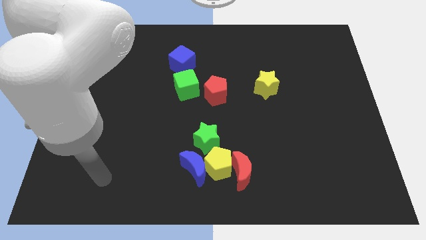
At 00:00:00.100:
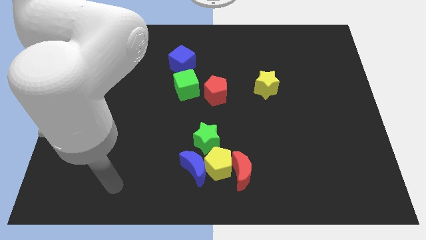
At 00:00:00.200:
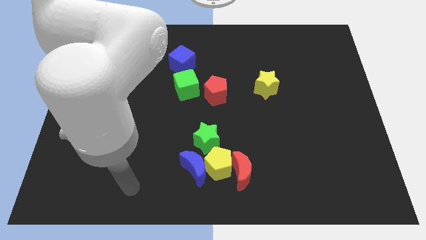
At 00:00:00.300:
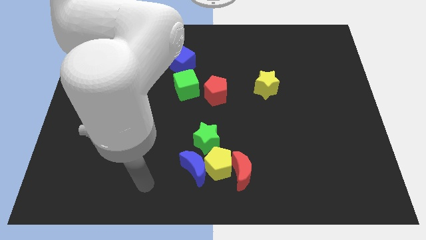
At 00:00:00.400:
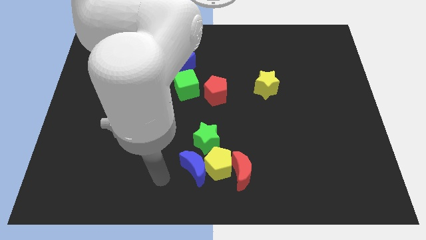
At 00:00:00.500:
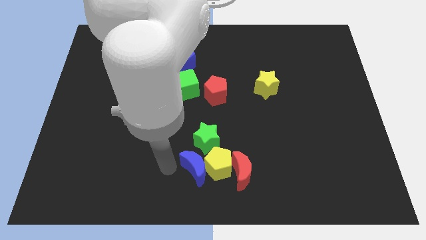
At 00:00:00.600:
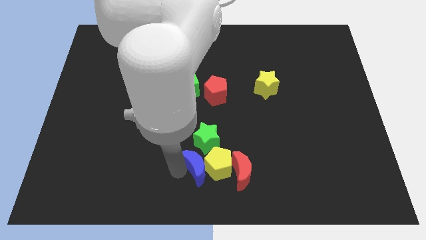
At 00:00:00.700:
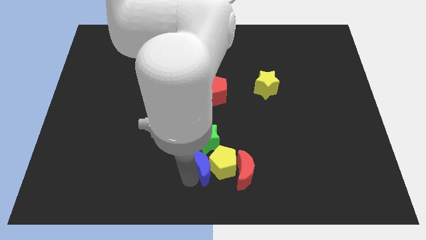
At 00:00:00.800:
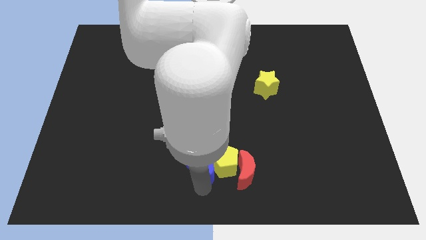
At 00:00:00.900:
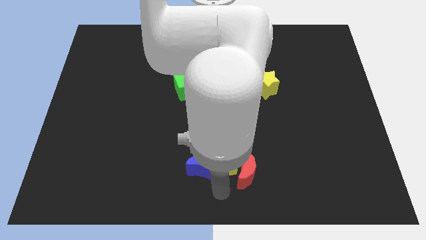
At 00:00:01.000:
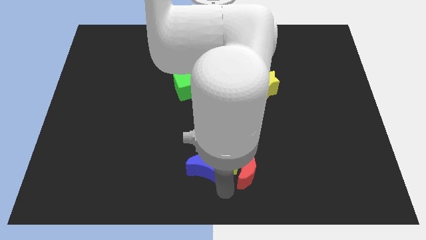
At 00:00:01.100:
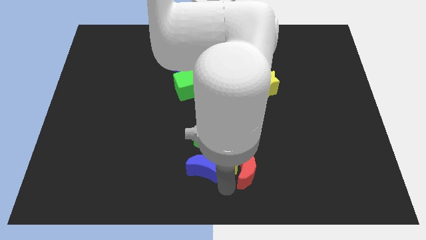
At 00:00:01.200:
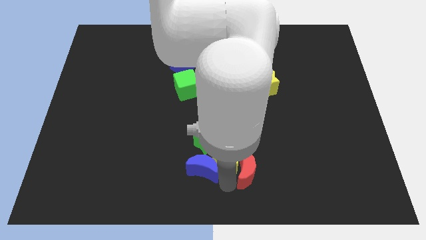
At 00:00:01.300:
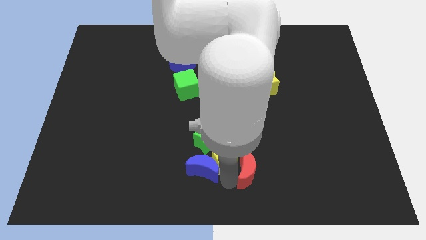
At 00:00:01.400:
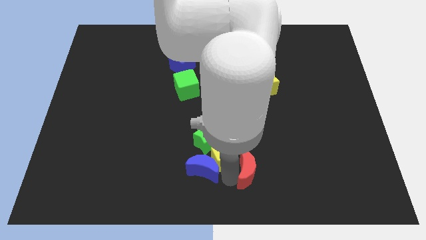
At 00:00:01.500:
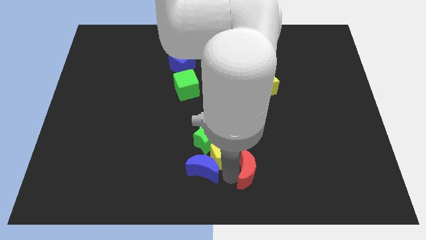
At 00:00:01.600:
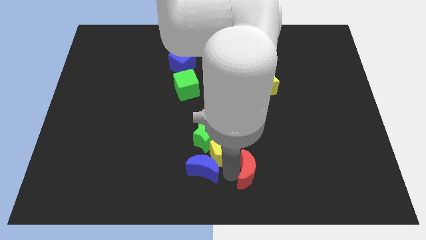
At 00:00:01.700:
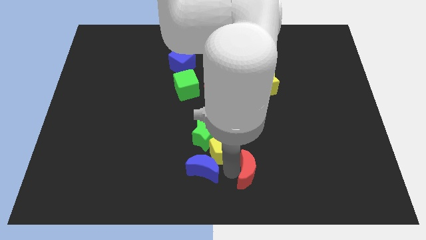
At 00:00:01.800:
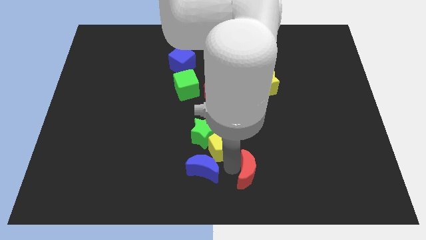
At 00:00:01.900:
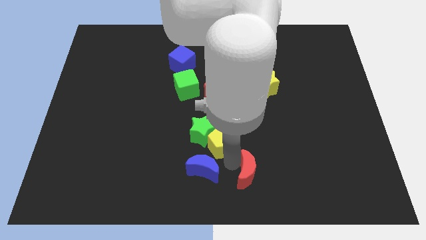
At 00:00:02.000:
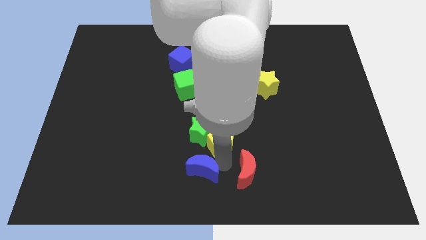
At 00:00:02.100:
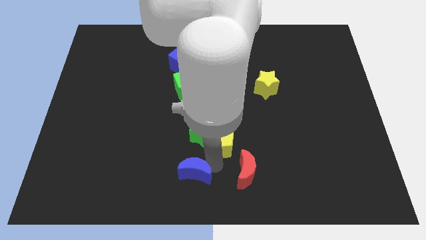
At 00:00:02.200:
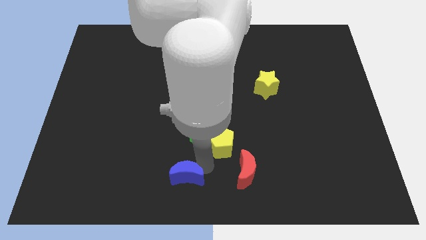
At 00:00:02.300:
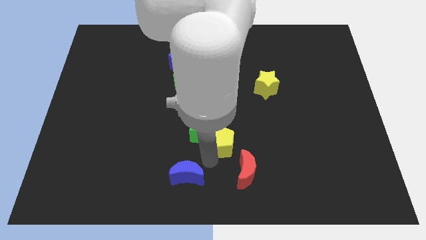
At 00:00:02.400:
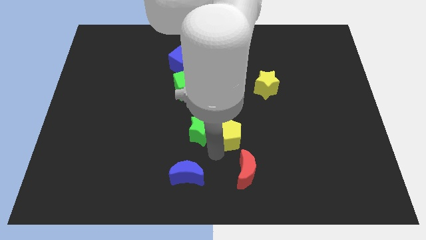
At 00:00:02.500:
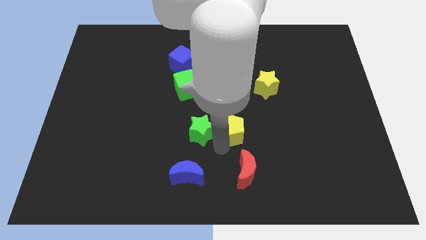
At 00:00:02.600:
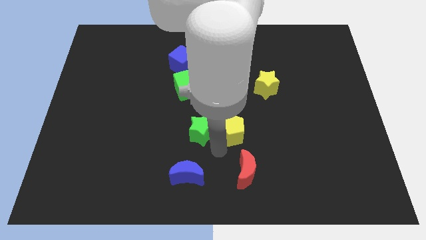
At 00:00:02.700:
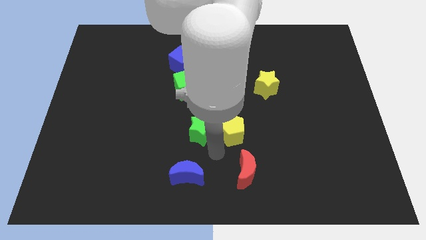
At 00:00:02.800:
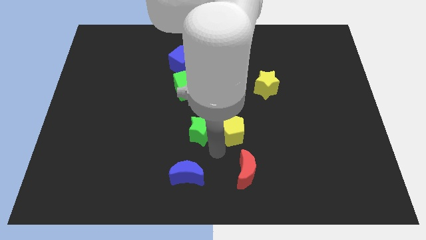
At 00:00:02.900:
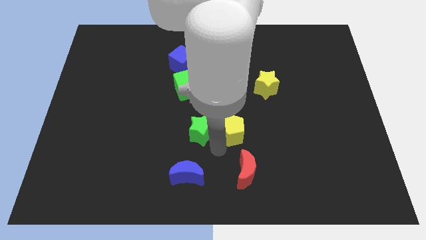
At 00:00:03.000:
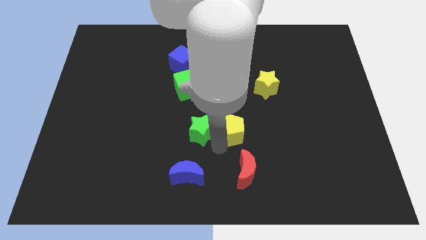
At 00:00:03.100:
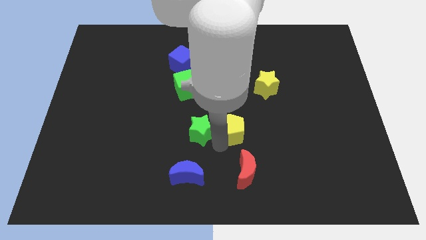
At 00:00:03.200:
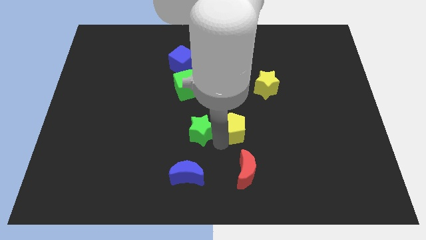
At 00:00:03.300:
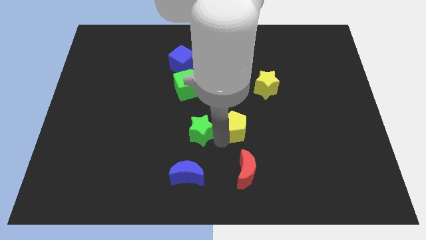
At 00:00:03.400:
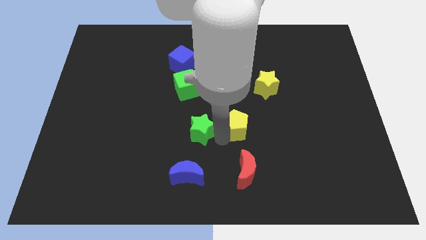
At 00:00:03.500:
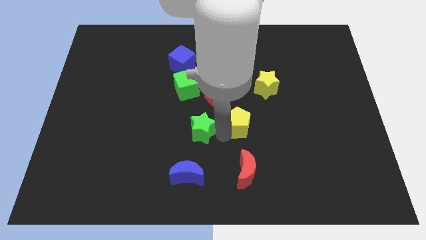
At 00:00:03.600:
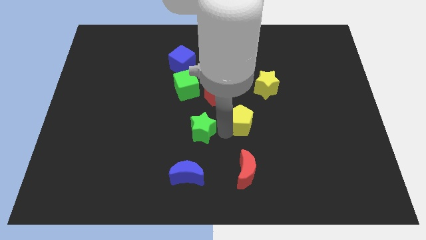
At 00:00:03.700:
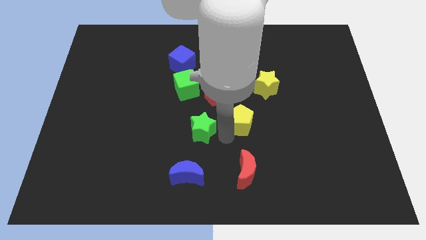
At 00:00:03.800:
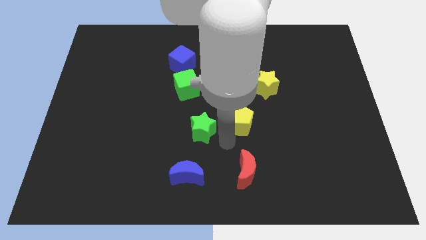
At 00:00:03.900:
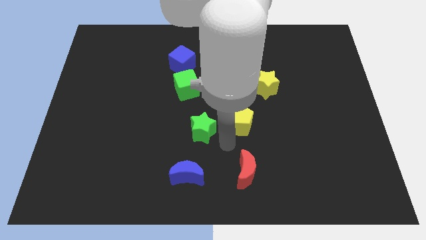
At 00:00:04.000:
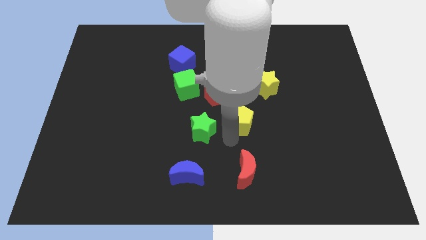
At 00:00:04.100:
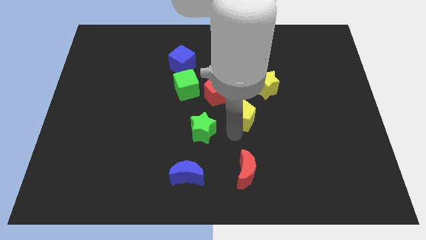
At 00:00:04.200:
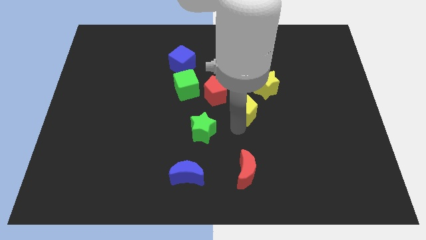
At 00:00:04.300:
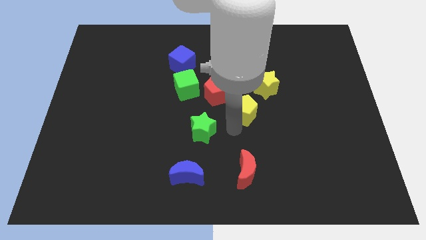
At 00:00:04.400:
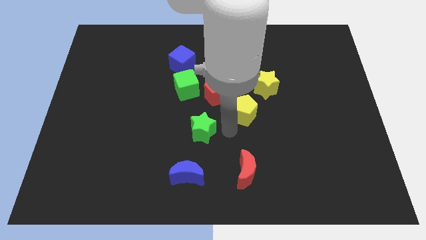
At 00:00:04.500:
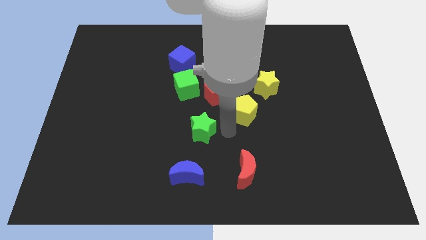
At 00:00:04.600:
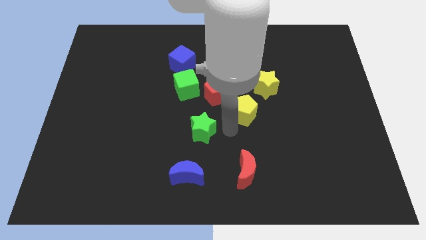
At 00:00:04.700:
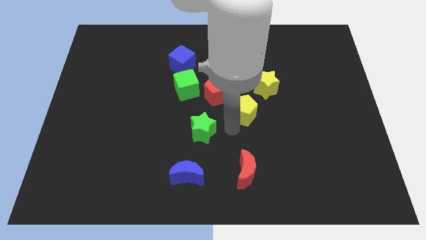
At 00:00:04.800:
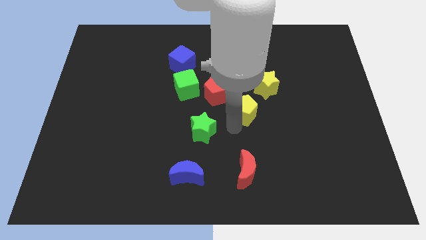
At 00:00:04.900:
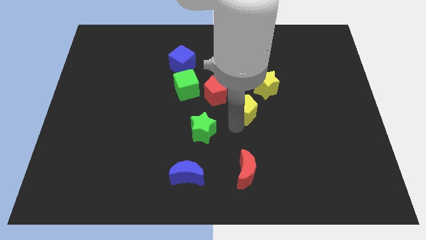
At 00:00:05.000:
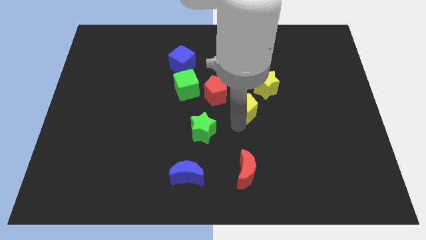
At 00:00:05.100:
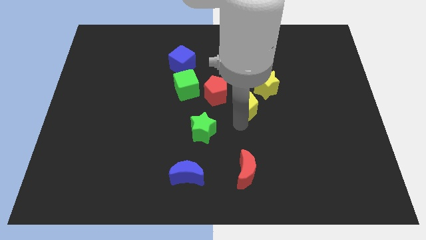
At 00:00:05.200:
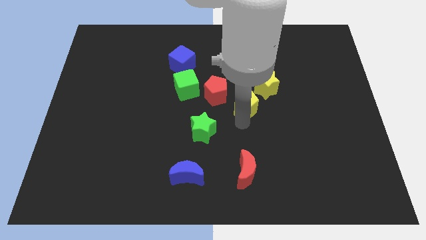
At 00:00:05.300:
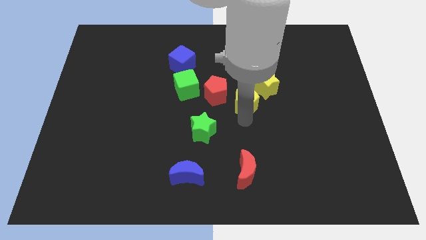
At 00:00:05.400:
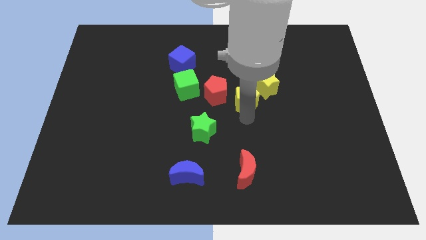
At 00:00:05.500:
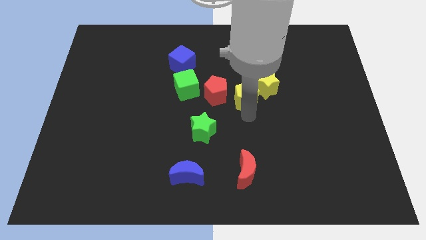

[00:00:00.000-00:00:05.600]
push the yellow pentagon next to the yellow star

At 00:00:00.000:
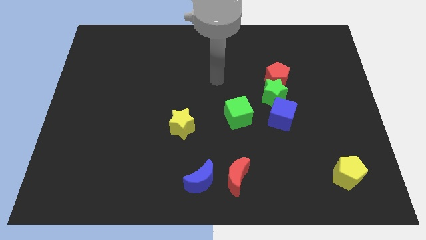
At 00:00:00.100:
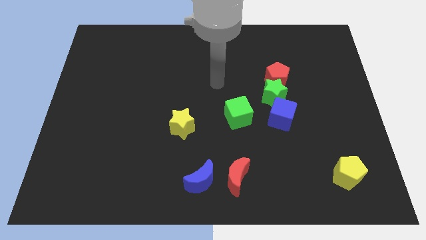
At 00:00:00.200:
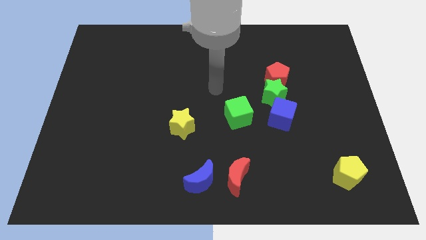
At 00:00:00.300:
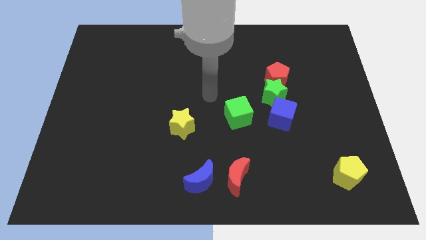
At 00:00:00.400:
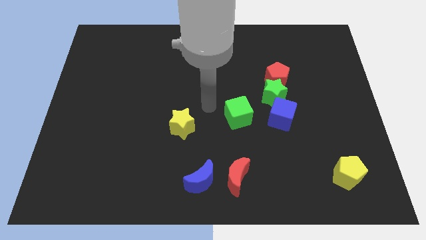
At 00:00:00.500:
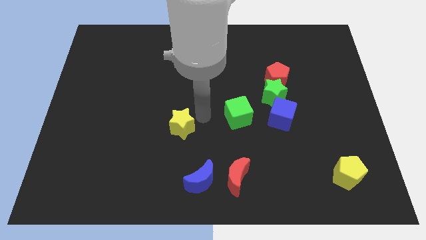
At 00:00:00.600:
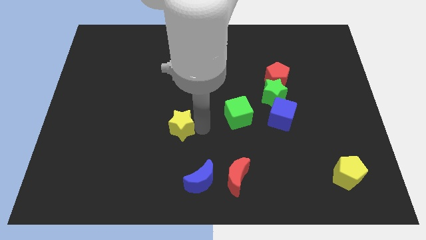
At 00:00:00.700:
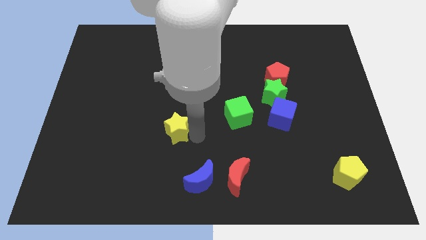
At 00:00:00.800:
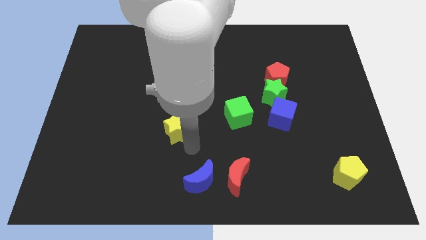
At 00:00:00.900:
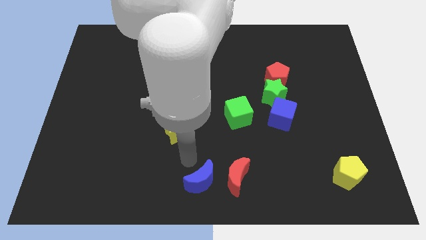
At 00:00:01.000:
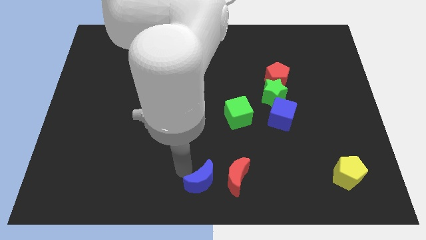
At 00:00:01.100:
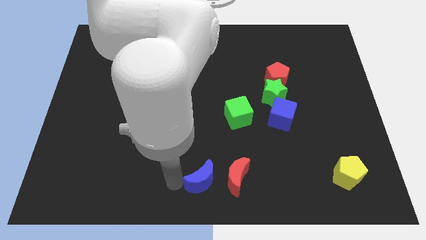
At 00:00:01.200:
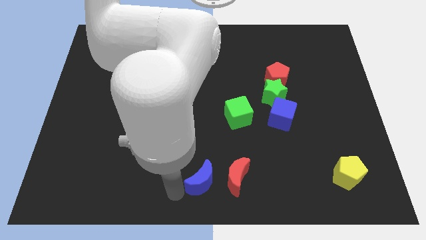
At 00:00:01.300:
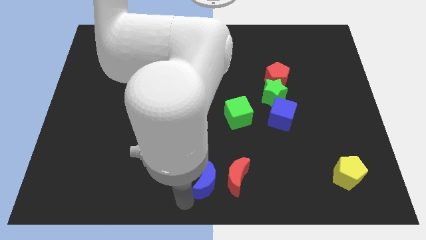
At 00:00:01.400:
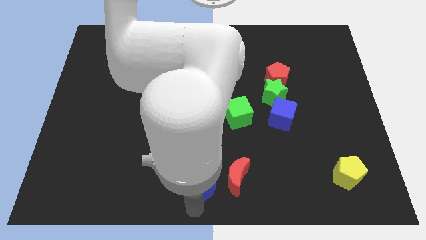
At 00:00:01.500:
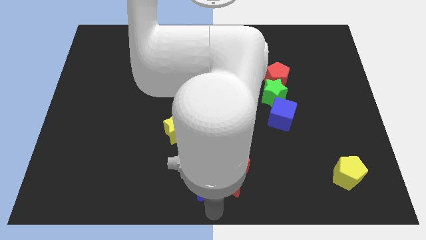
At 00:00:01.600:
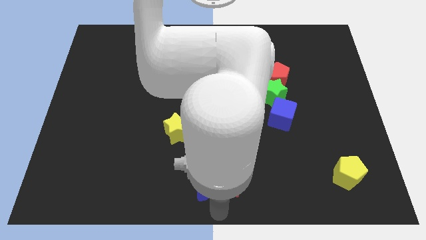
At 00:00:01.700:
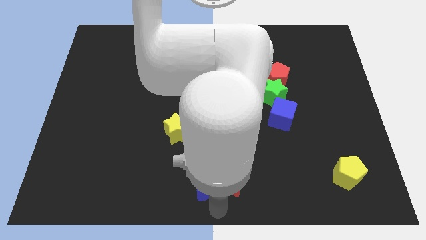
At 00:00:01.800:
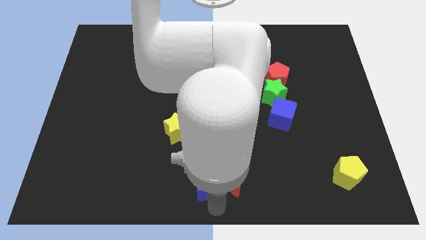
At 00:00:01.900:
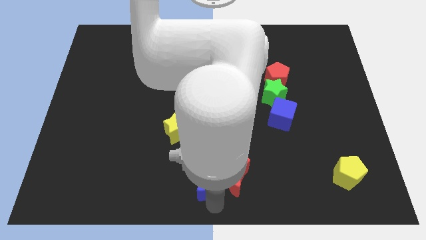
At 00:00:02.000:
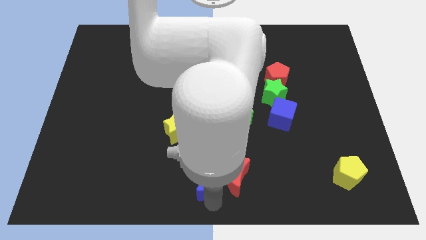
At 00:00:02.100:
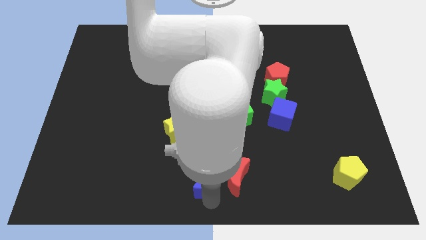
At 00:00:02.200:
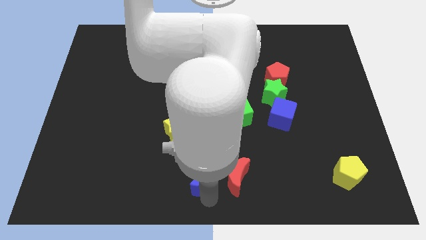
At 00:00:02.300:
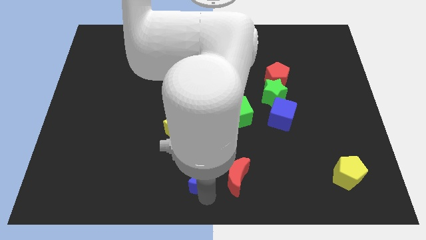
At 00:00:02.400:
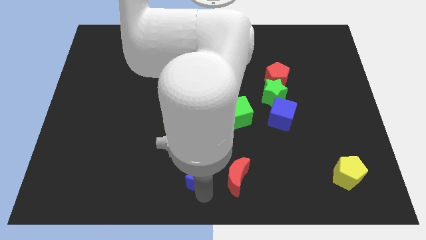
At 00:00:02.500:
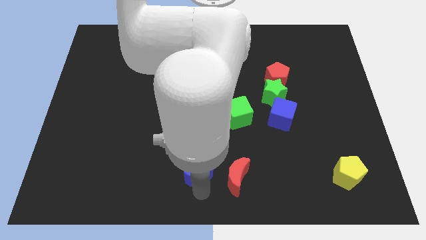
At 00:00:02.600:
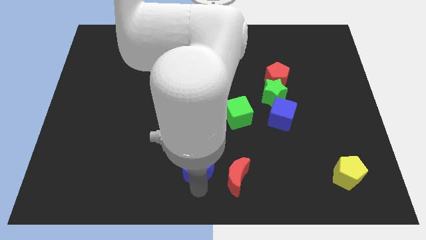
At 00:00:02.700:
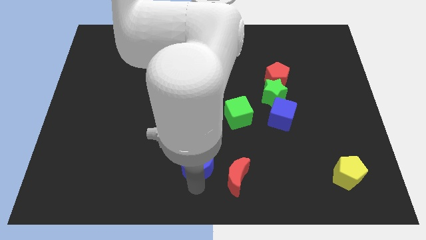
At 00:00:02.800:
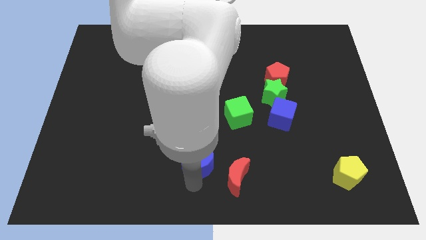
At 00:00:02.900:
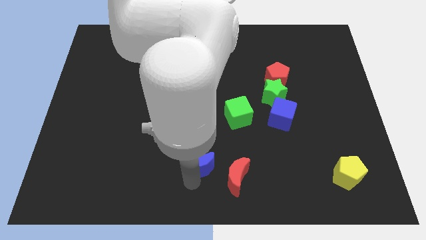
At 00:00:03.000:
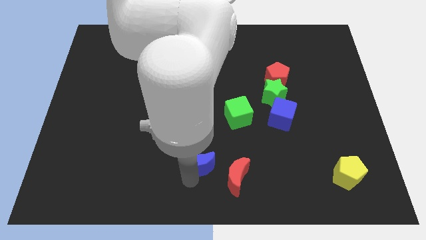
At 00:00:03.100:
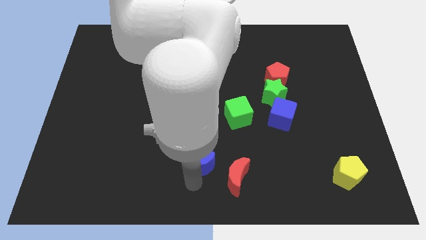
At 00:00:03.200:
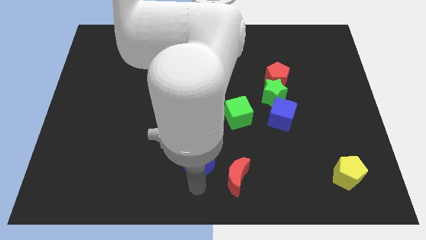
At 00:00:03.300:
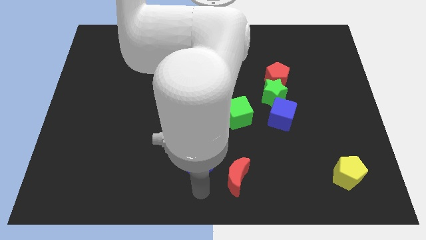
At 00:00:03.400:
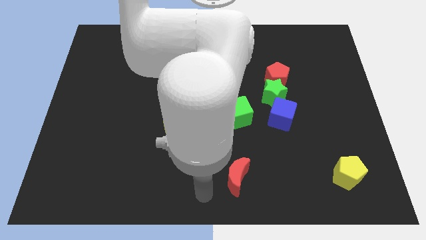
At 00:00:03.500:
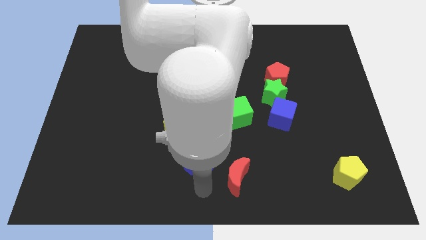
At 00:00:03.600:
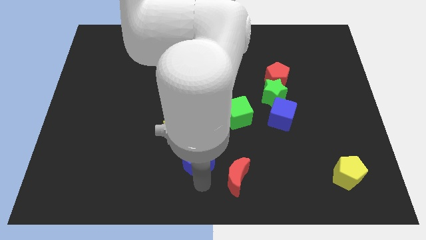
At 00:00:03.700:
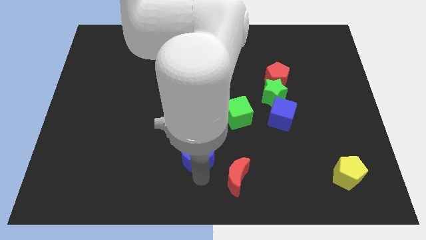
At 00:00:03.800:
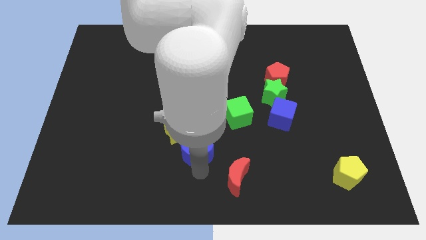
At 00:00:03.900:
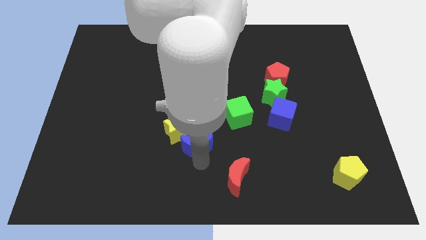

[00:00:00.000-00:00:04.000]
push the blue moon towards the yellow star
